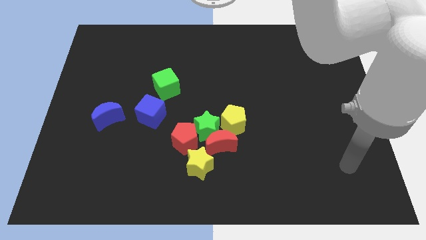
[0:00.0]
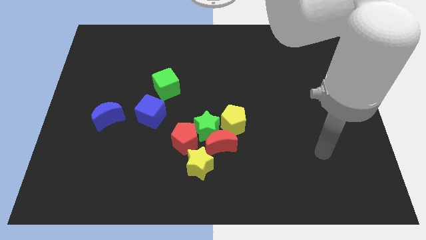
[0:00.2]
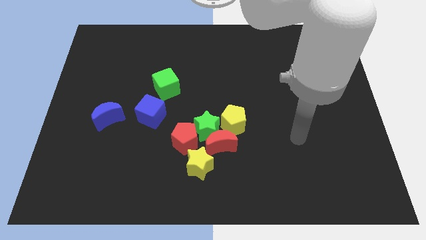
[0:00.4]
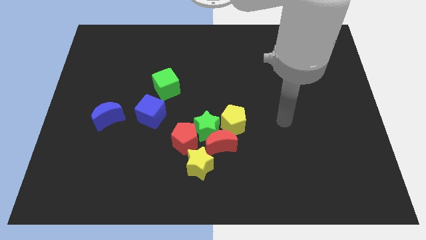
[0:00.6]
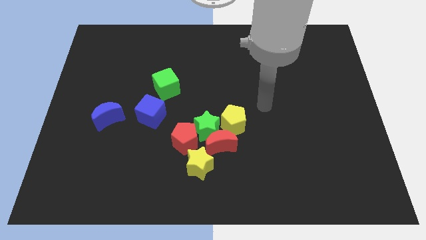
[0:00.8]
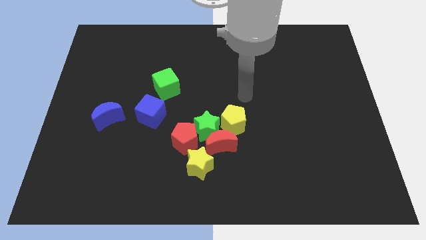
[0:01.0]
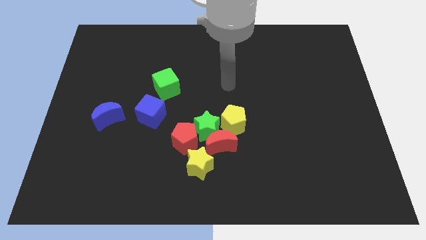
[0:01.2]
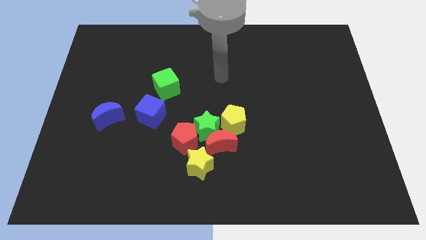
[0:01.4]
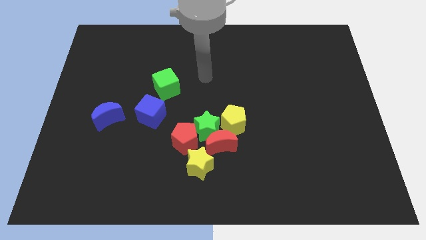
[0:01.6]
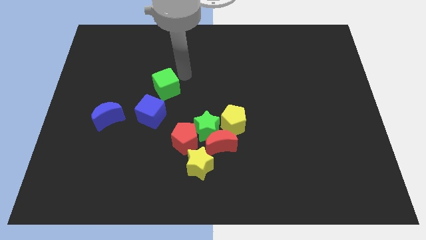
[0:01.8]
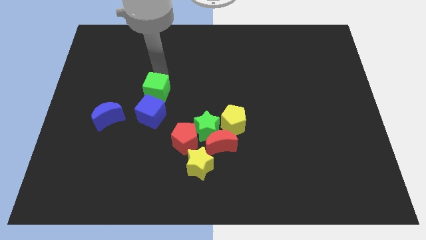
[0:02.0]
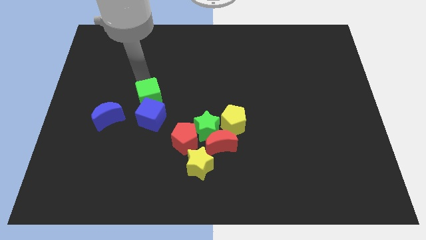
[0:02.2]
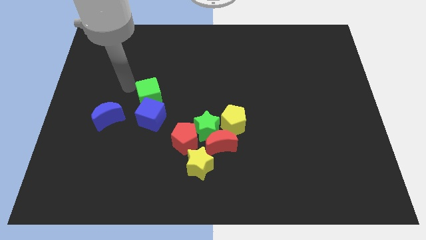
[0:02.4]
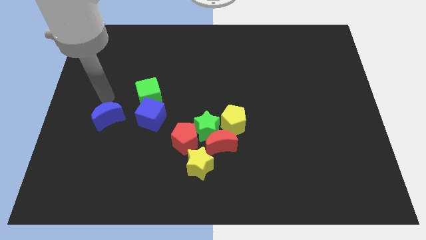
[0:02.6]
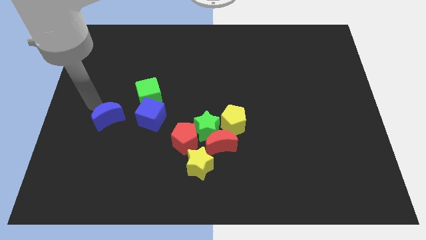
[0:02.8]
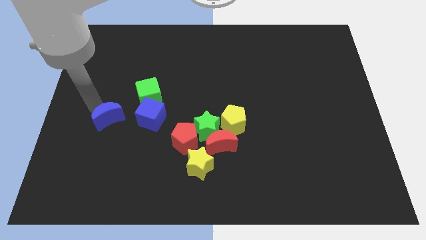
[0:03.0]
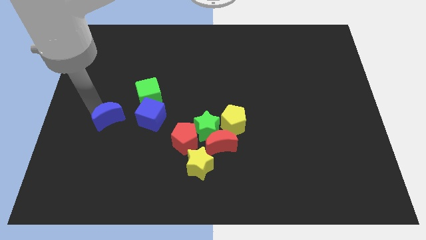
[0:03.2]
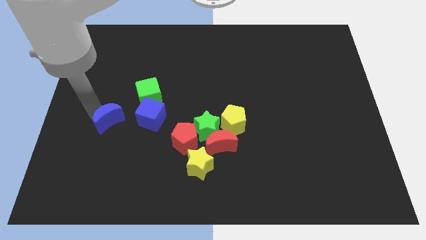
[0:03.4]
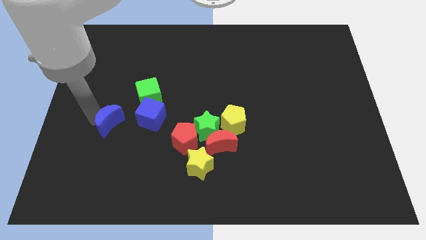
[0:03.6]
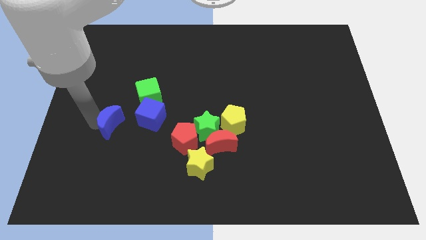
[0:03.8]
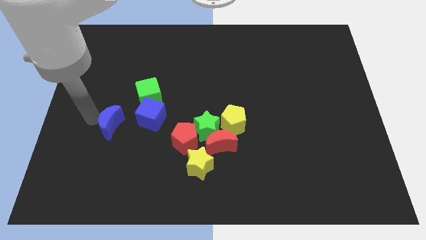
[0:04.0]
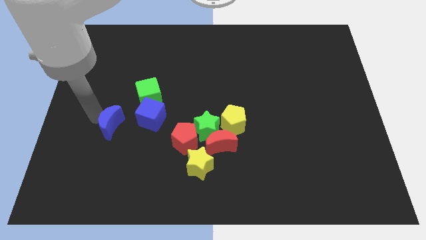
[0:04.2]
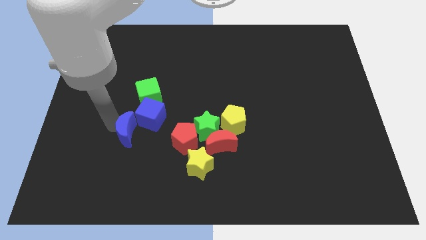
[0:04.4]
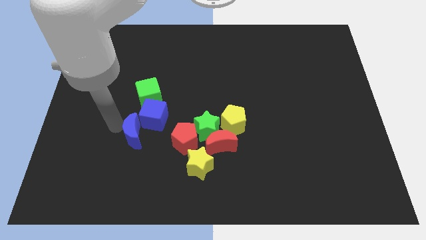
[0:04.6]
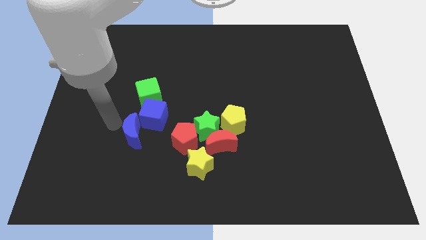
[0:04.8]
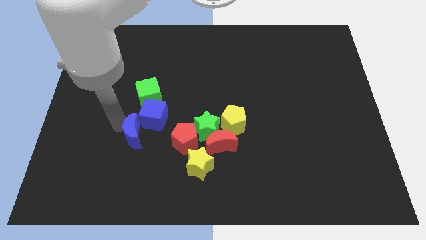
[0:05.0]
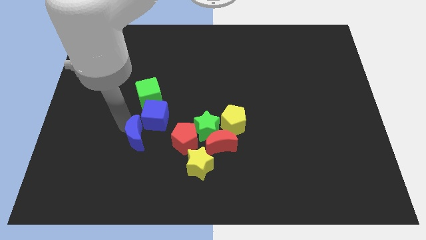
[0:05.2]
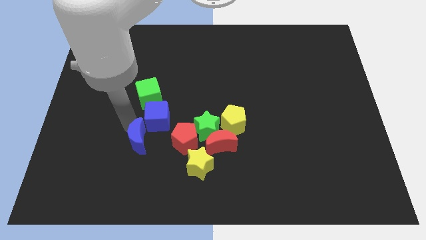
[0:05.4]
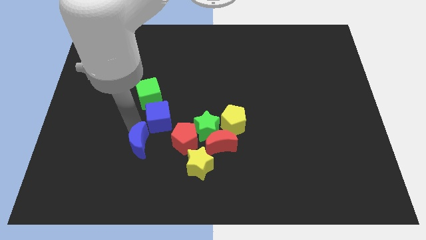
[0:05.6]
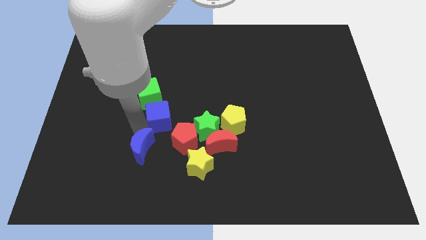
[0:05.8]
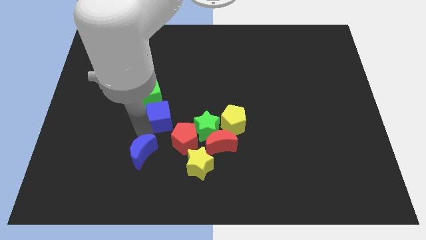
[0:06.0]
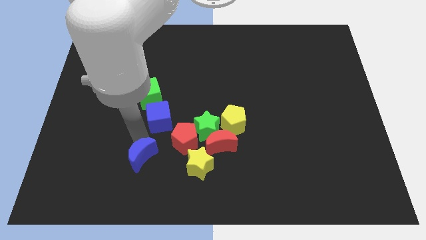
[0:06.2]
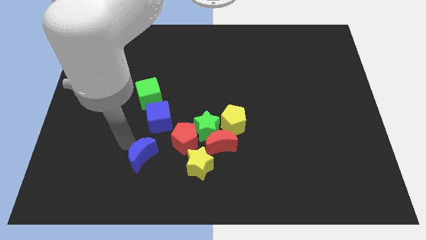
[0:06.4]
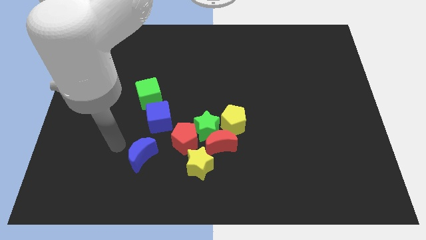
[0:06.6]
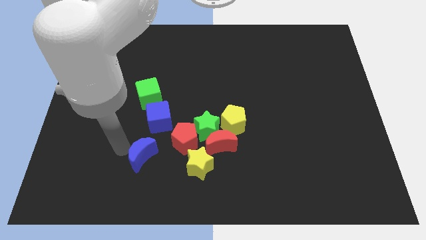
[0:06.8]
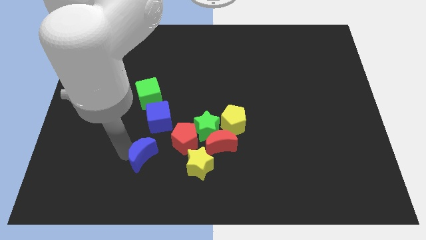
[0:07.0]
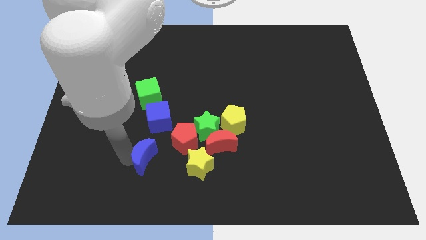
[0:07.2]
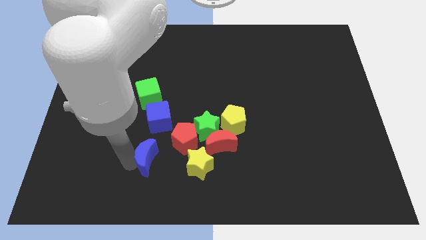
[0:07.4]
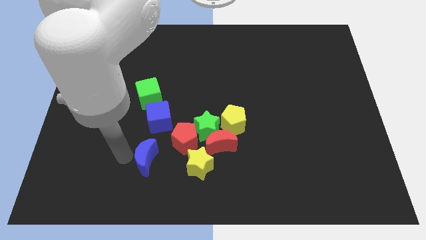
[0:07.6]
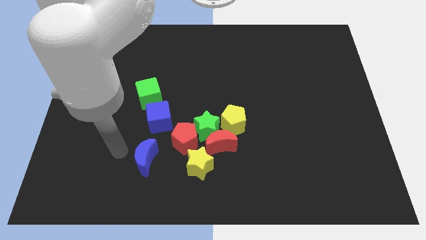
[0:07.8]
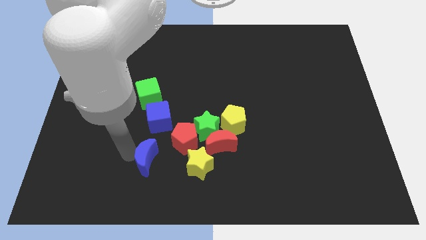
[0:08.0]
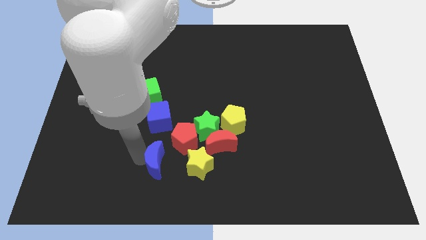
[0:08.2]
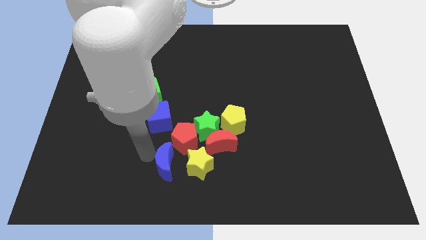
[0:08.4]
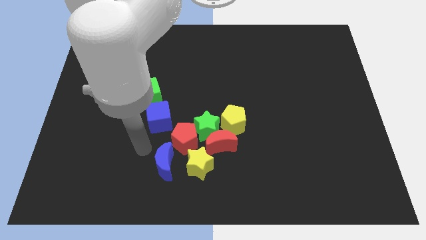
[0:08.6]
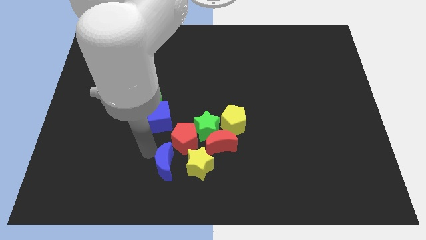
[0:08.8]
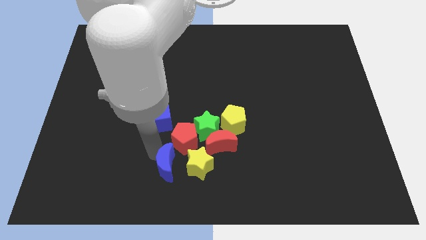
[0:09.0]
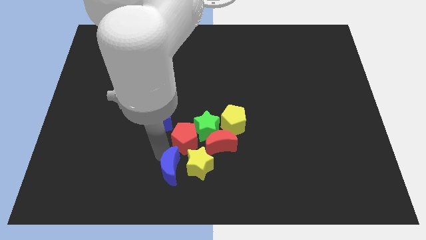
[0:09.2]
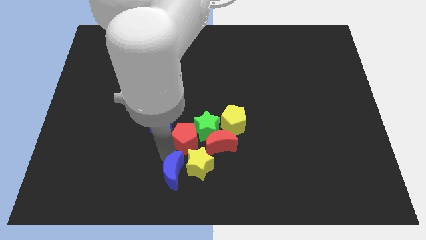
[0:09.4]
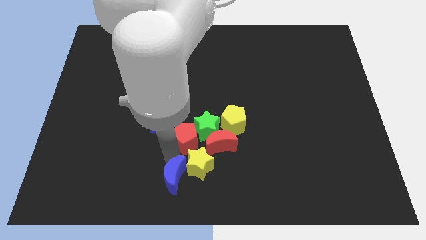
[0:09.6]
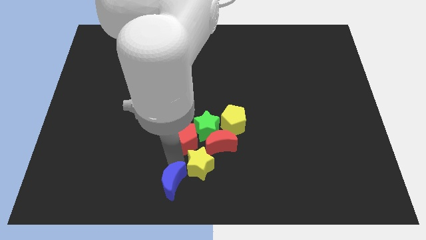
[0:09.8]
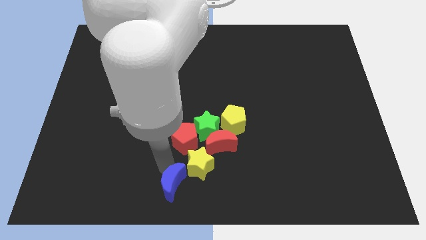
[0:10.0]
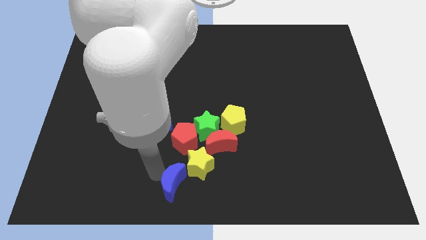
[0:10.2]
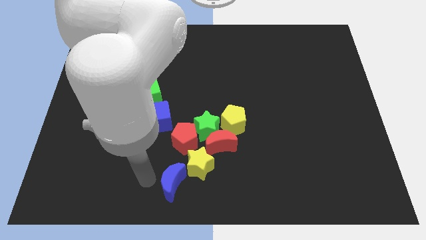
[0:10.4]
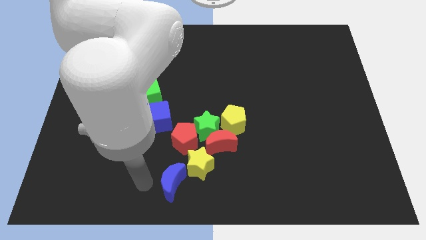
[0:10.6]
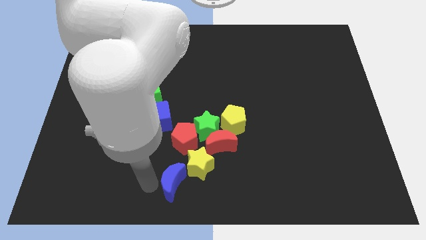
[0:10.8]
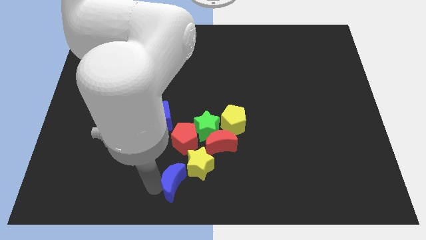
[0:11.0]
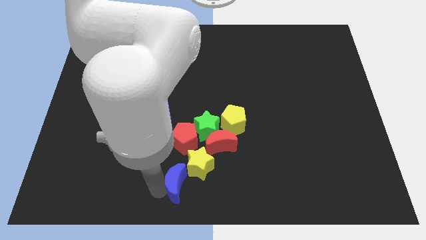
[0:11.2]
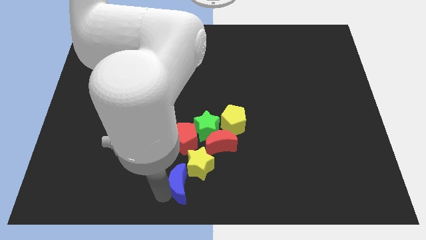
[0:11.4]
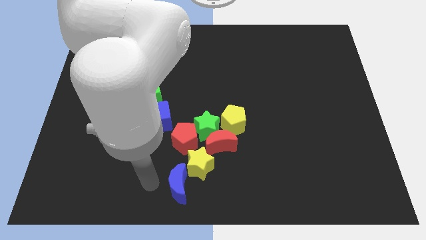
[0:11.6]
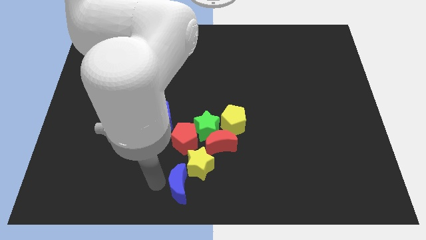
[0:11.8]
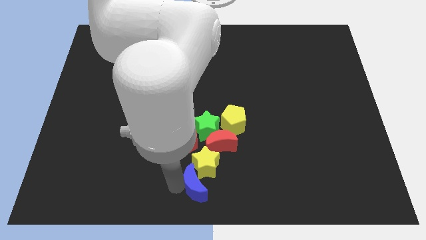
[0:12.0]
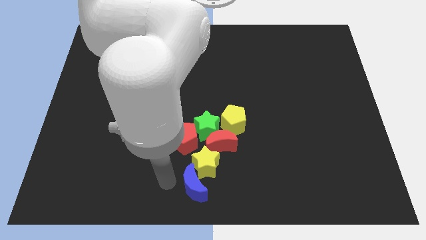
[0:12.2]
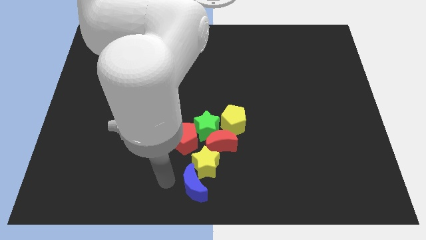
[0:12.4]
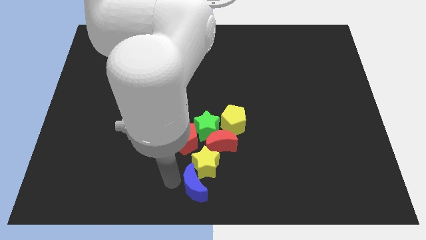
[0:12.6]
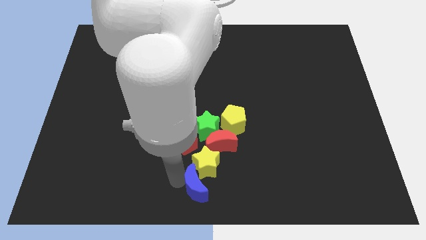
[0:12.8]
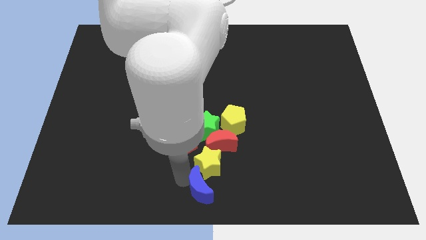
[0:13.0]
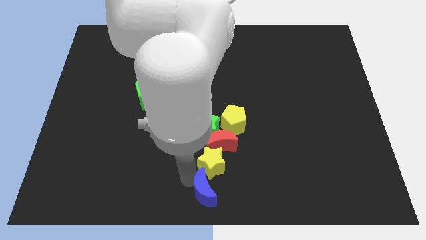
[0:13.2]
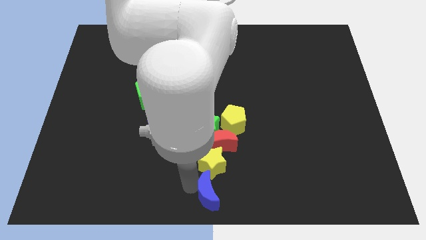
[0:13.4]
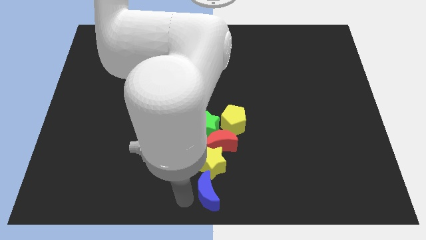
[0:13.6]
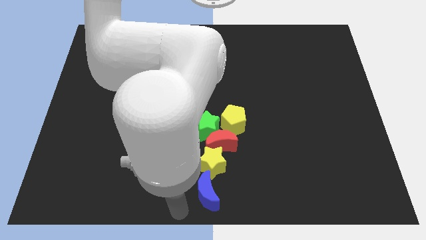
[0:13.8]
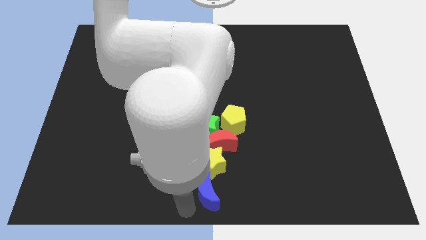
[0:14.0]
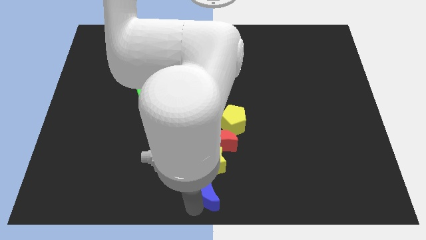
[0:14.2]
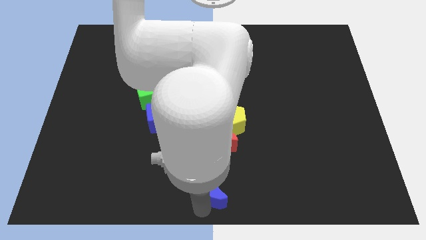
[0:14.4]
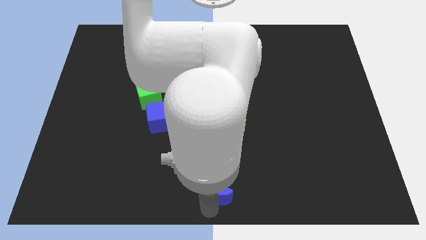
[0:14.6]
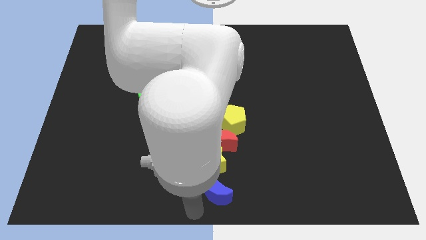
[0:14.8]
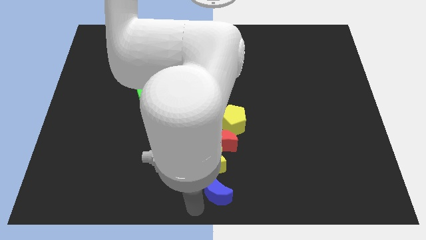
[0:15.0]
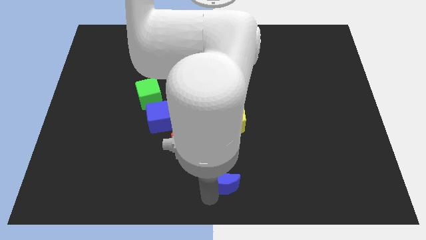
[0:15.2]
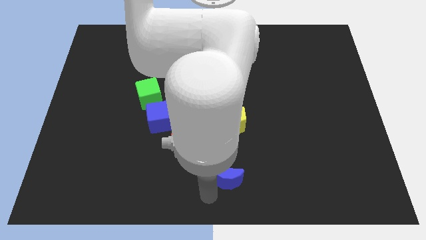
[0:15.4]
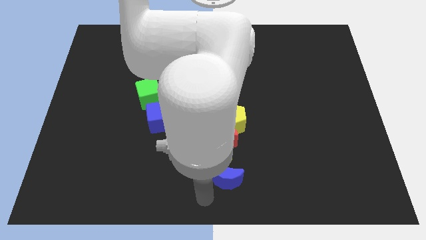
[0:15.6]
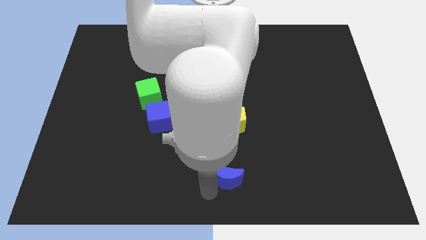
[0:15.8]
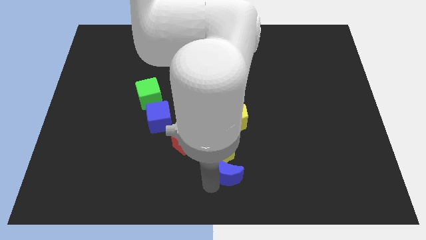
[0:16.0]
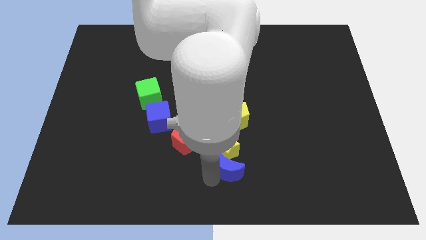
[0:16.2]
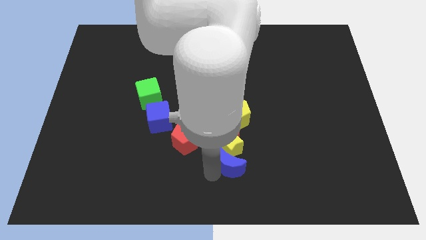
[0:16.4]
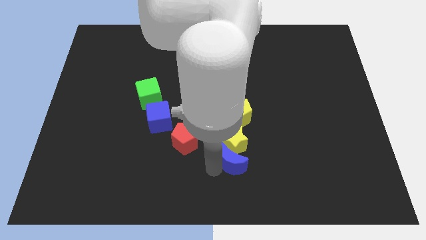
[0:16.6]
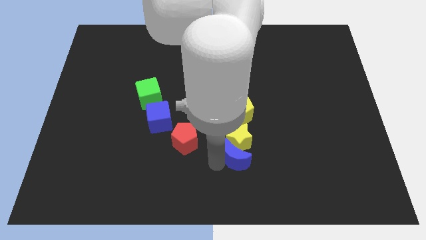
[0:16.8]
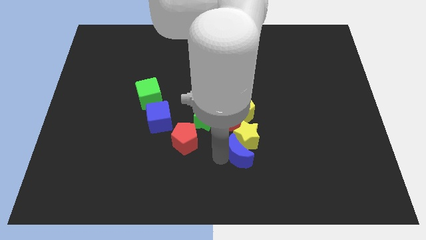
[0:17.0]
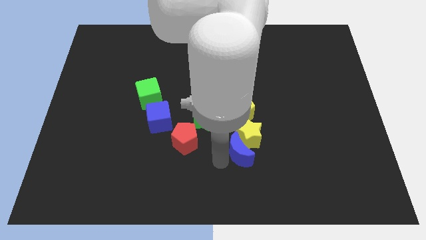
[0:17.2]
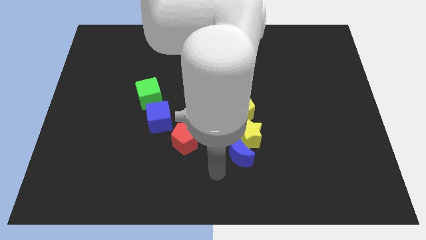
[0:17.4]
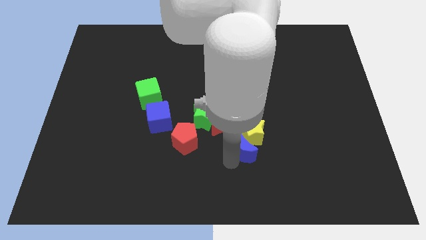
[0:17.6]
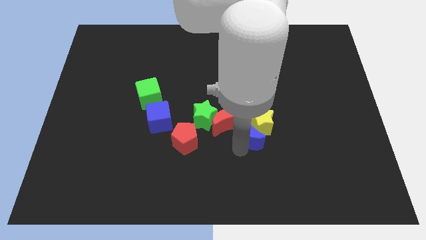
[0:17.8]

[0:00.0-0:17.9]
push the blue moon to the bottom right of the yellow pentagon

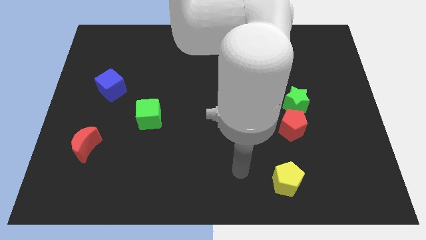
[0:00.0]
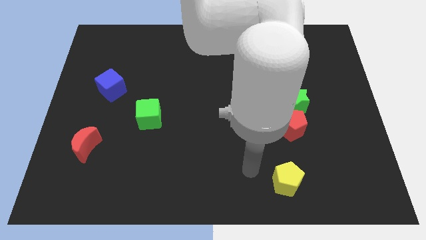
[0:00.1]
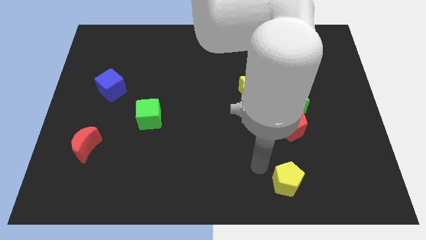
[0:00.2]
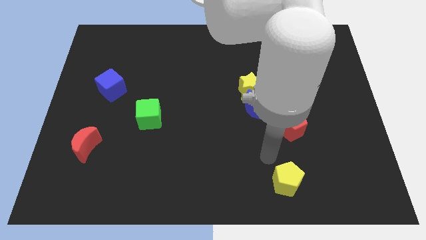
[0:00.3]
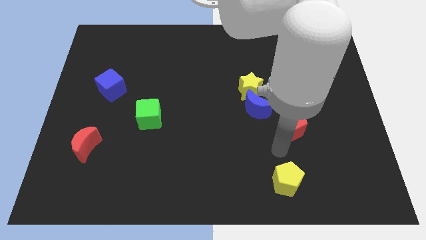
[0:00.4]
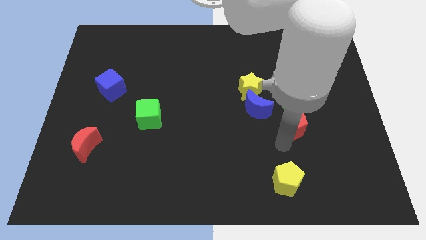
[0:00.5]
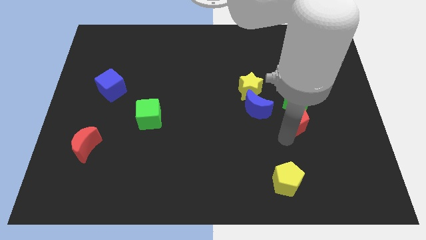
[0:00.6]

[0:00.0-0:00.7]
move the red pentagon to the right side of the blue moon
